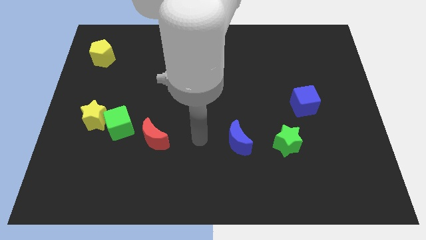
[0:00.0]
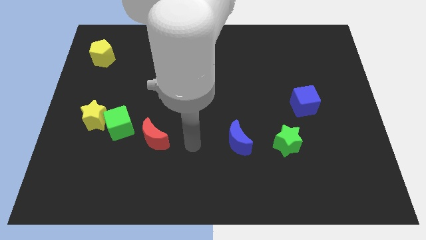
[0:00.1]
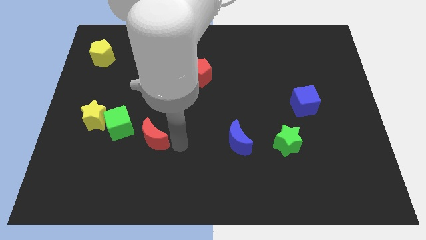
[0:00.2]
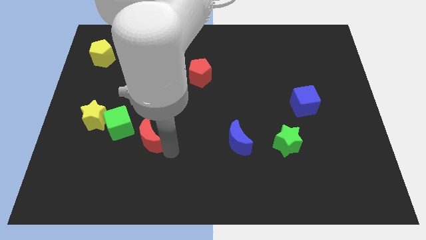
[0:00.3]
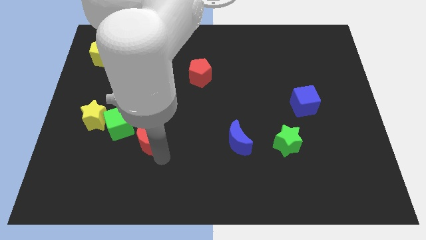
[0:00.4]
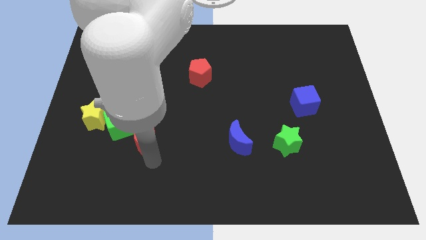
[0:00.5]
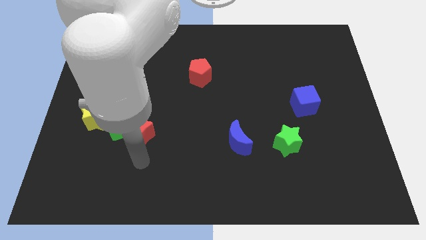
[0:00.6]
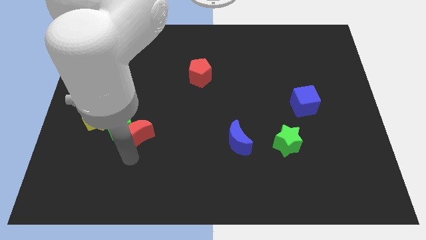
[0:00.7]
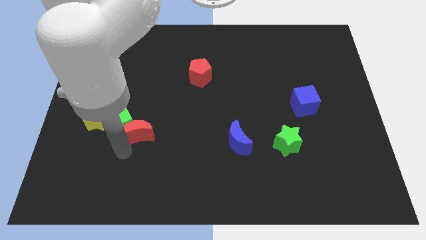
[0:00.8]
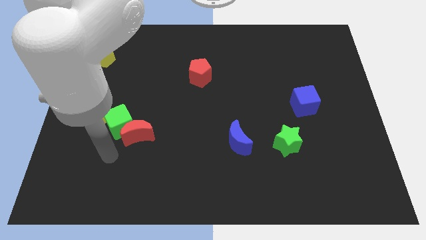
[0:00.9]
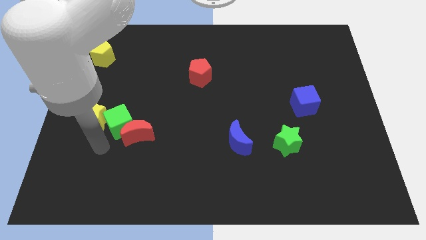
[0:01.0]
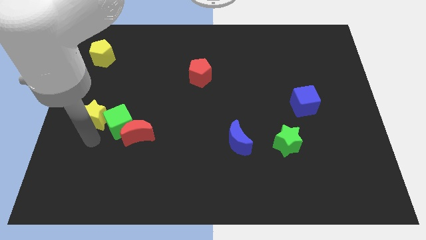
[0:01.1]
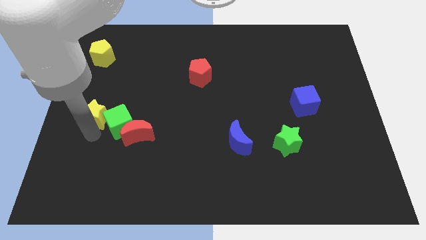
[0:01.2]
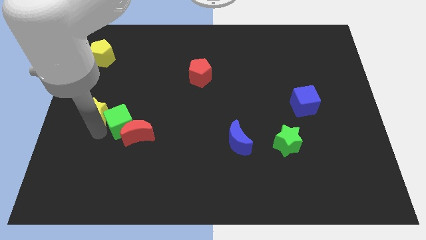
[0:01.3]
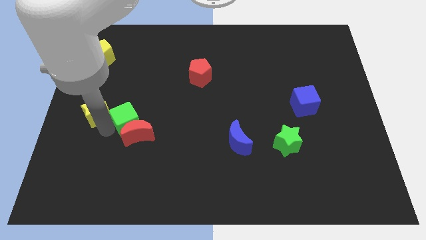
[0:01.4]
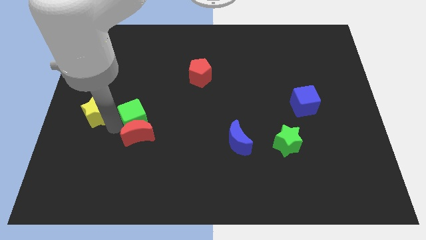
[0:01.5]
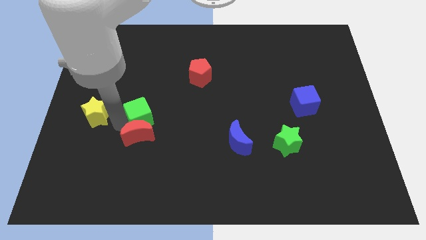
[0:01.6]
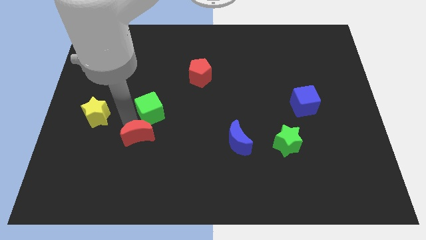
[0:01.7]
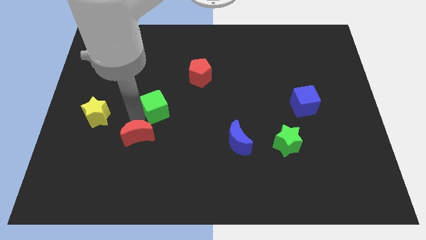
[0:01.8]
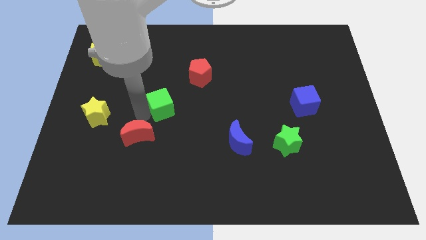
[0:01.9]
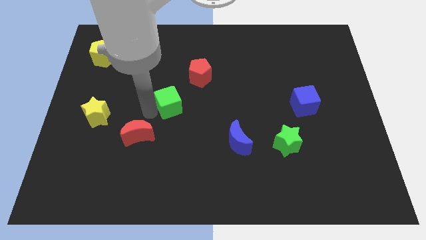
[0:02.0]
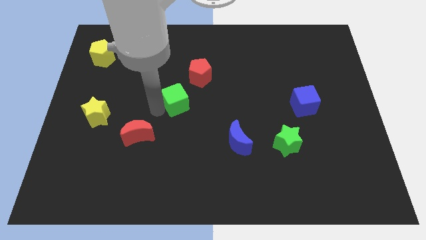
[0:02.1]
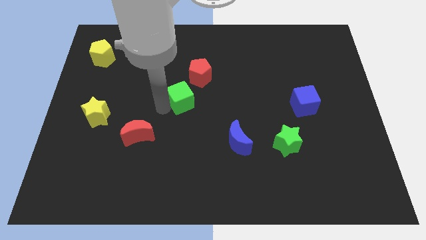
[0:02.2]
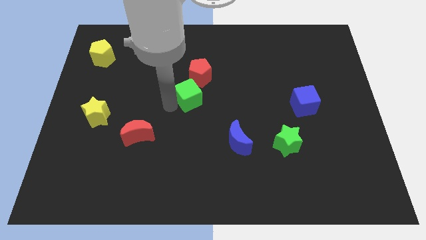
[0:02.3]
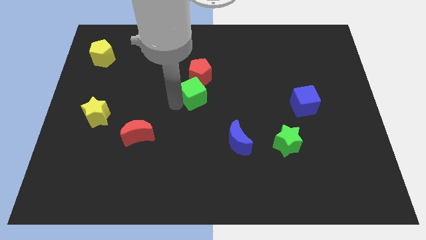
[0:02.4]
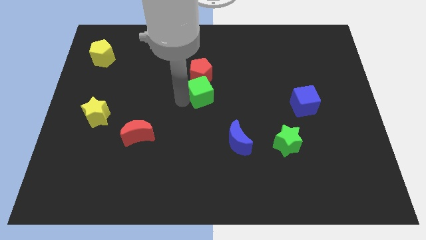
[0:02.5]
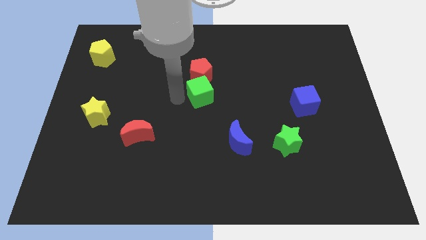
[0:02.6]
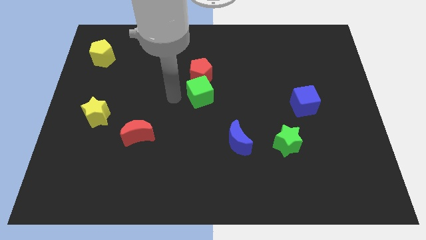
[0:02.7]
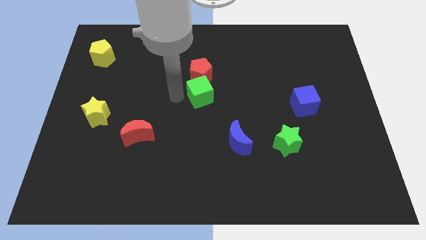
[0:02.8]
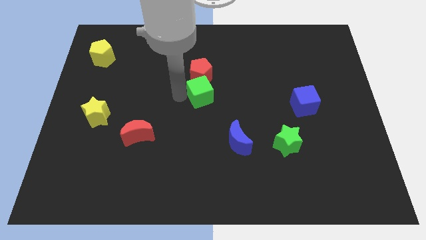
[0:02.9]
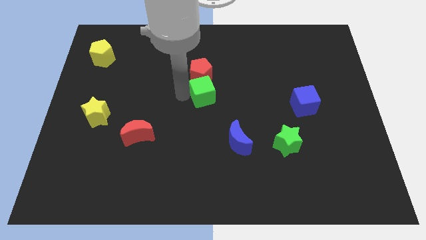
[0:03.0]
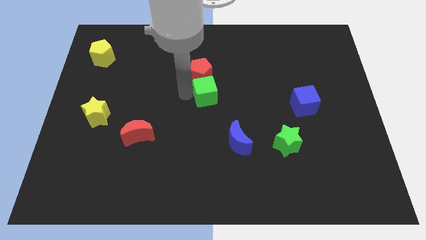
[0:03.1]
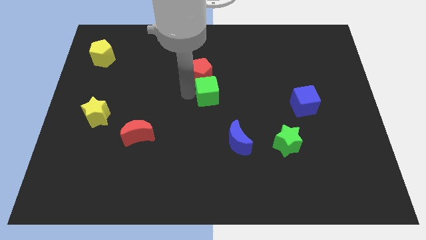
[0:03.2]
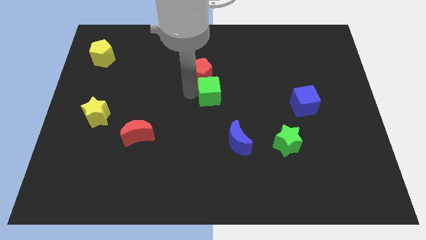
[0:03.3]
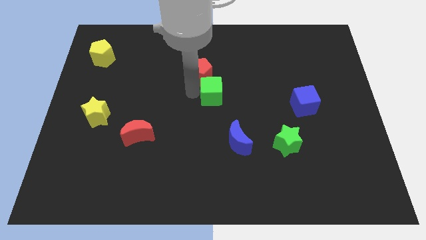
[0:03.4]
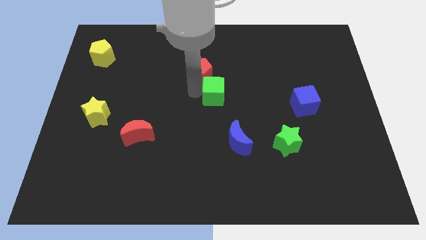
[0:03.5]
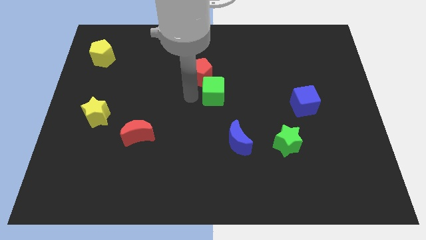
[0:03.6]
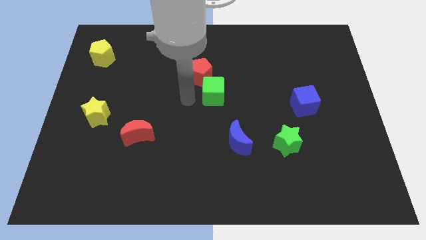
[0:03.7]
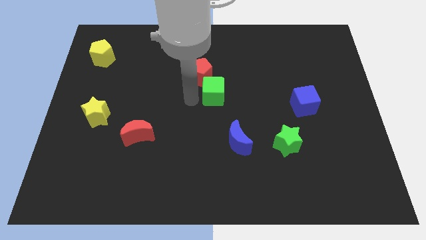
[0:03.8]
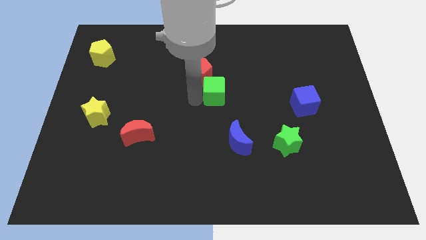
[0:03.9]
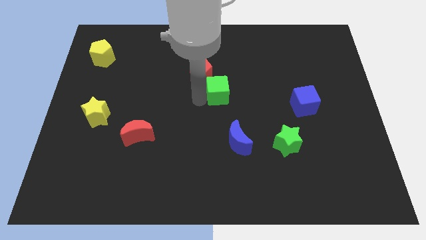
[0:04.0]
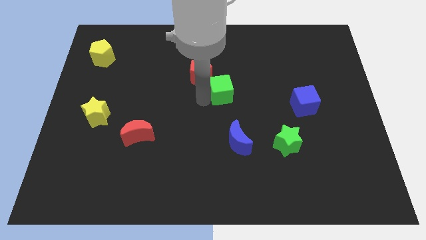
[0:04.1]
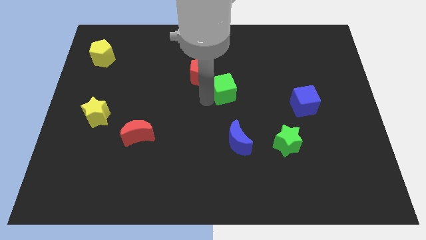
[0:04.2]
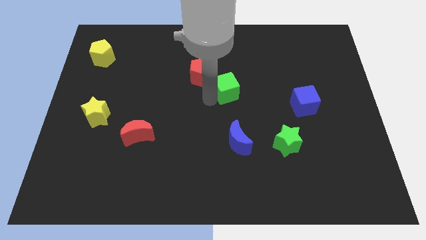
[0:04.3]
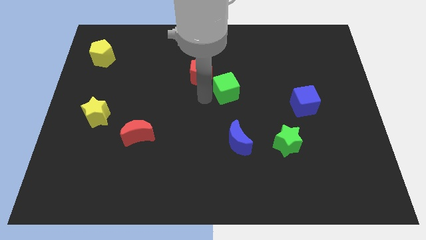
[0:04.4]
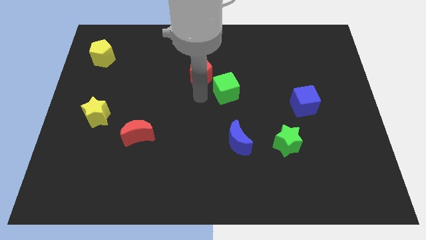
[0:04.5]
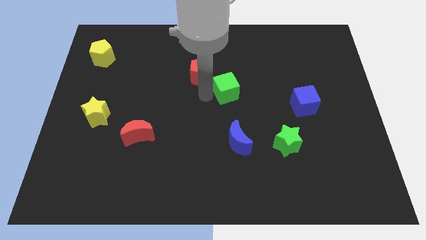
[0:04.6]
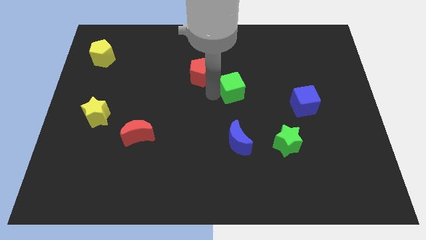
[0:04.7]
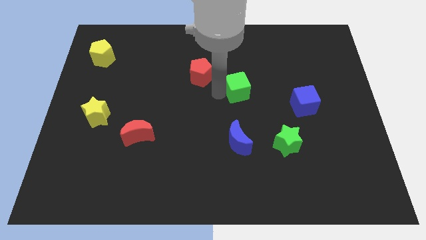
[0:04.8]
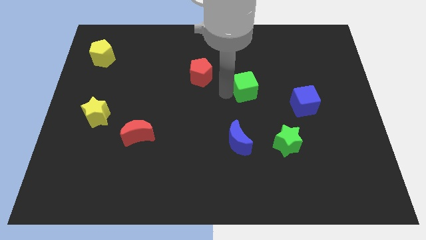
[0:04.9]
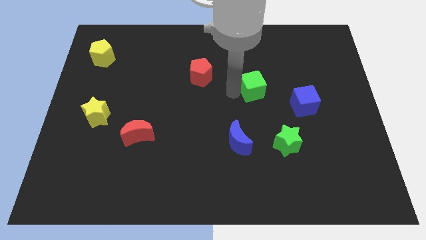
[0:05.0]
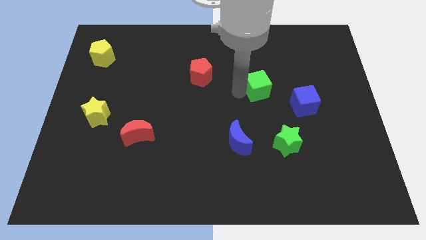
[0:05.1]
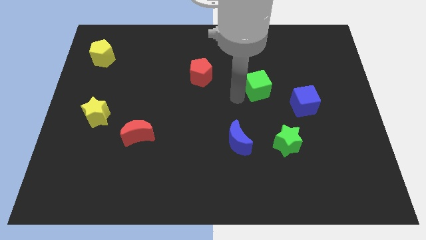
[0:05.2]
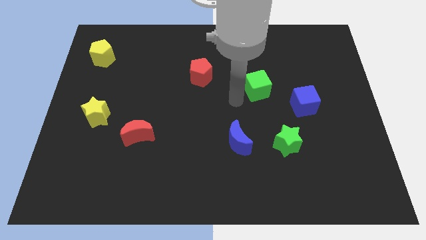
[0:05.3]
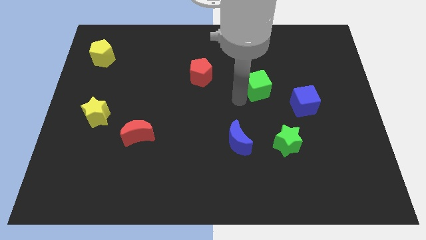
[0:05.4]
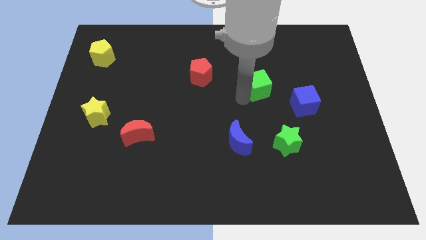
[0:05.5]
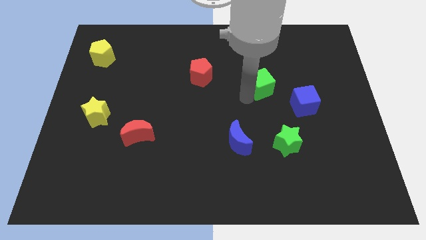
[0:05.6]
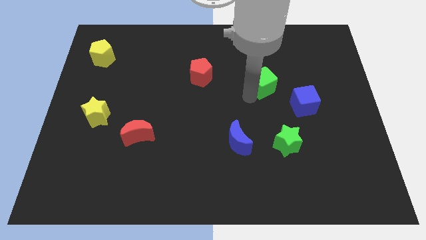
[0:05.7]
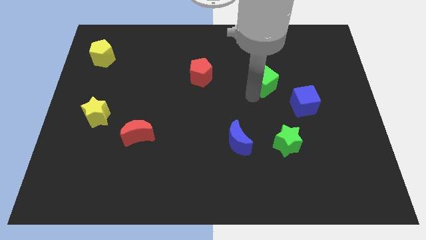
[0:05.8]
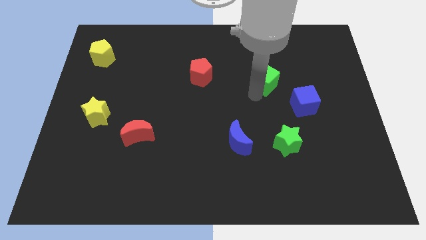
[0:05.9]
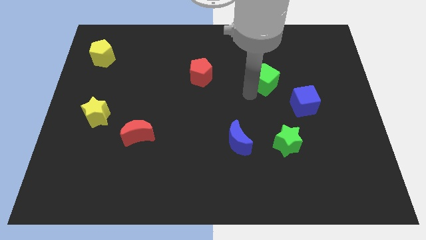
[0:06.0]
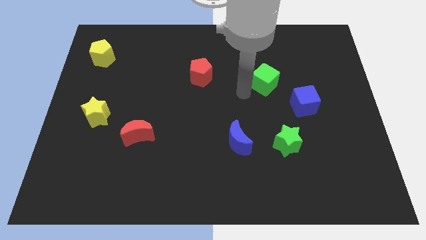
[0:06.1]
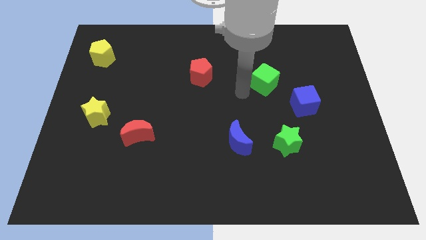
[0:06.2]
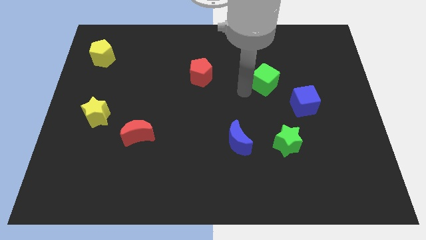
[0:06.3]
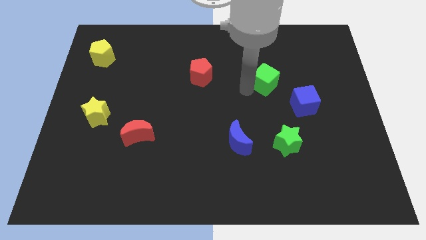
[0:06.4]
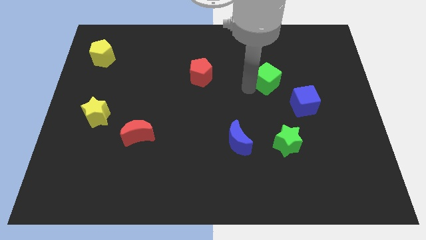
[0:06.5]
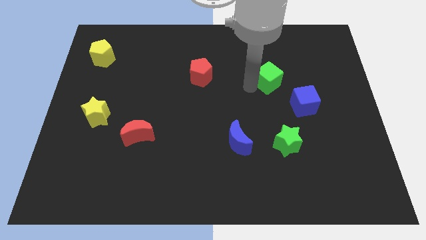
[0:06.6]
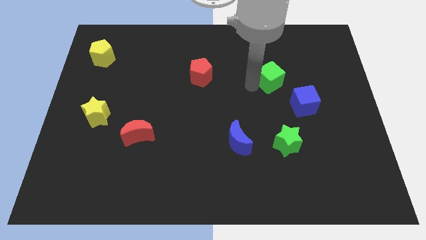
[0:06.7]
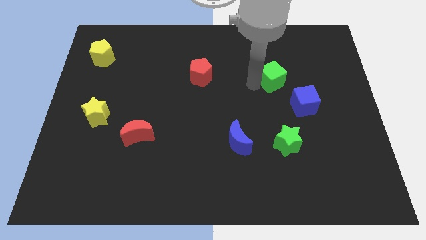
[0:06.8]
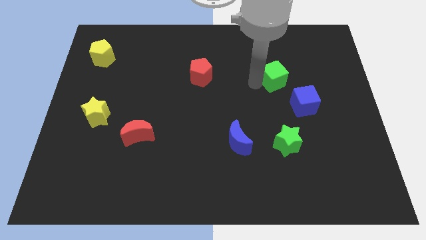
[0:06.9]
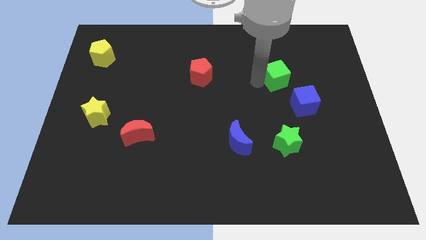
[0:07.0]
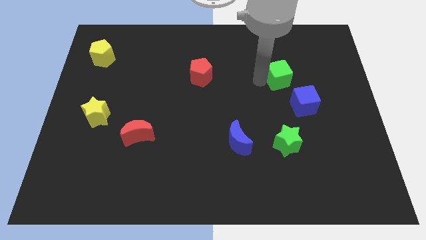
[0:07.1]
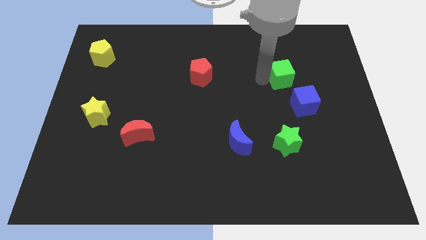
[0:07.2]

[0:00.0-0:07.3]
slide the green cube to the top of the blue cube

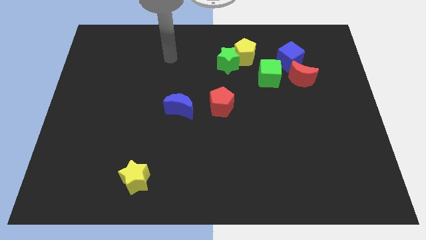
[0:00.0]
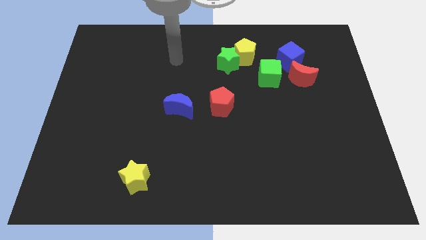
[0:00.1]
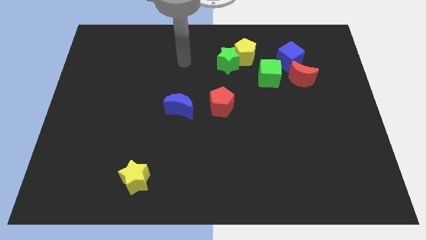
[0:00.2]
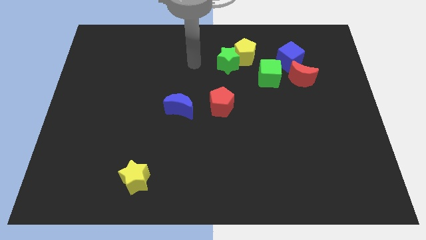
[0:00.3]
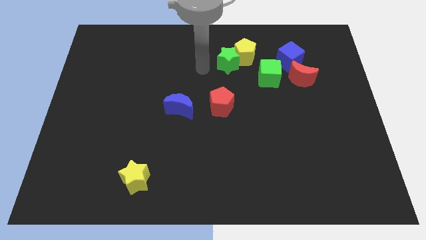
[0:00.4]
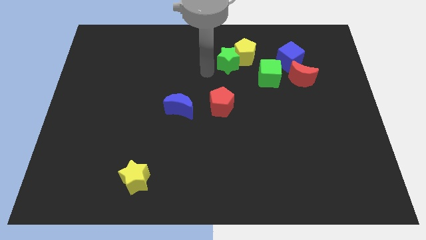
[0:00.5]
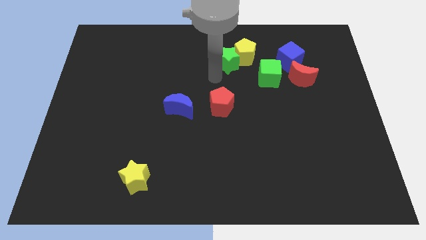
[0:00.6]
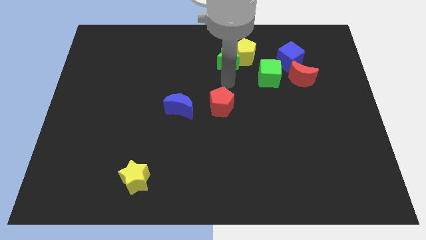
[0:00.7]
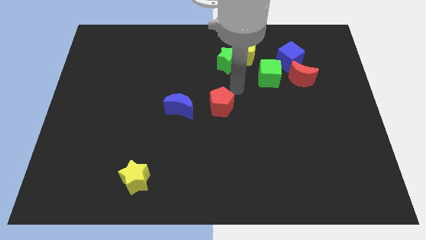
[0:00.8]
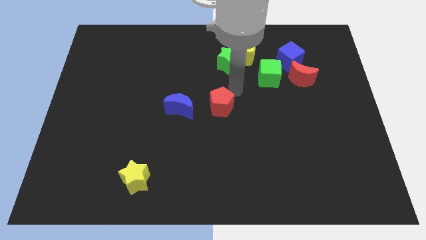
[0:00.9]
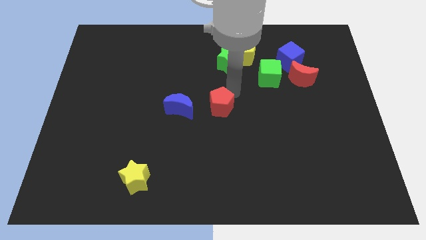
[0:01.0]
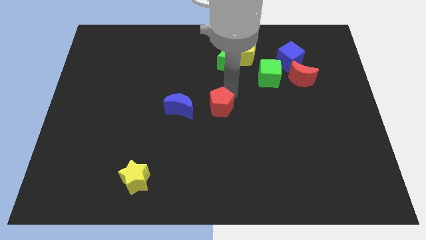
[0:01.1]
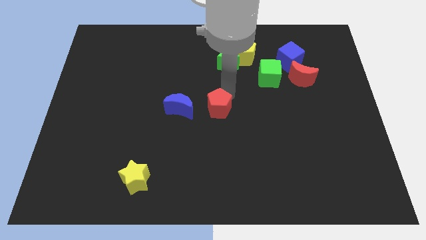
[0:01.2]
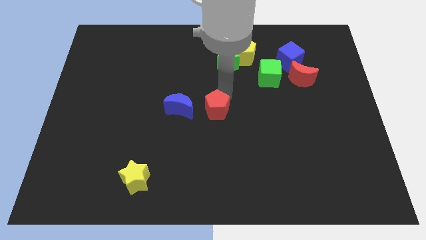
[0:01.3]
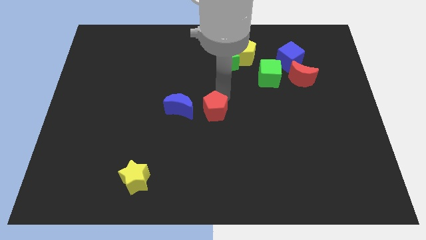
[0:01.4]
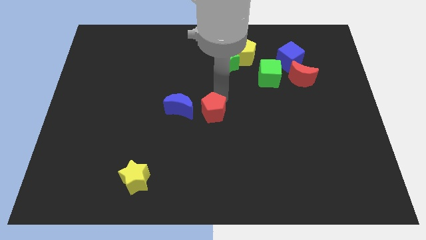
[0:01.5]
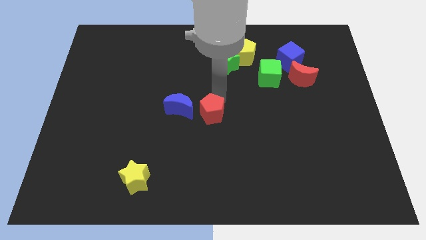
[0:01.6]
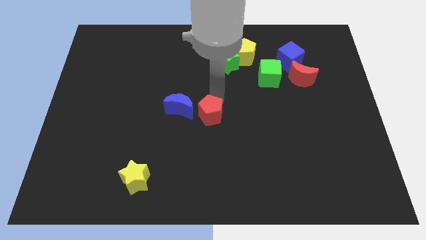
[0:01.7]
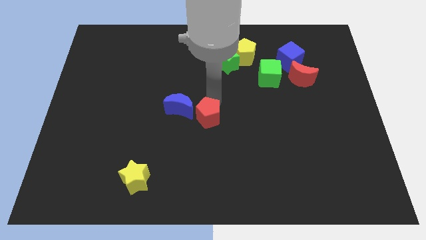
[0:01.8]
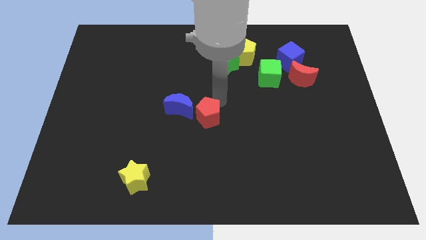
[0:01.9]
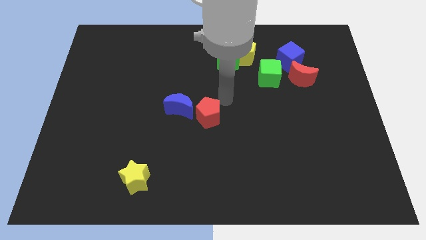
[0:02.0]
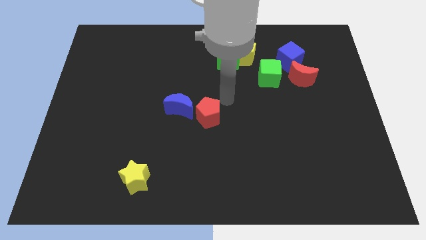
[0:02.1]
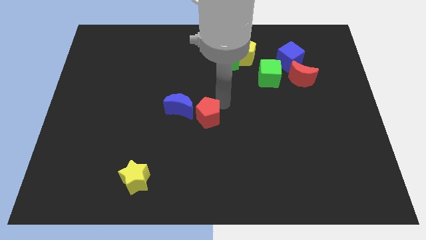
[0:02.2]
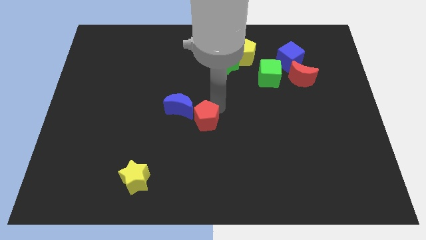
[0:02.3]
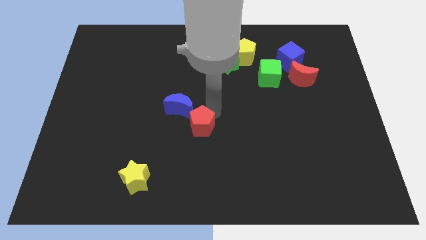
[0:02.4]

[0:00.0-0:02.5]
slide the red pentagon to the bottom of the blue moon
